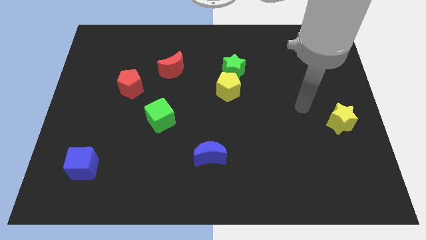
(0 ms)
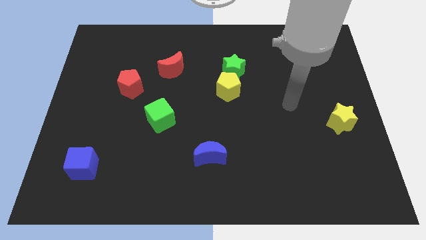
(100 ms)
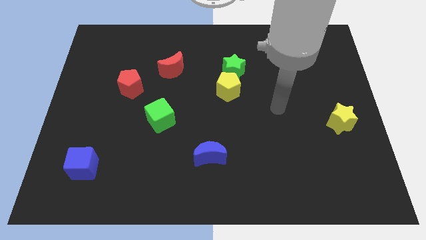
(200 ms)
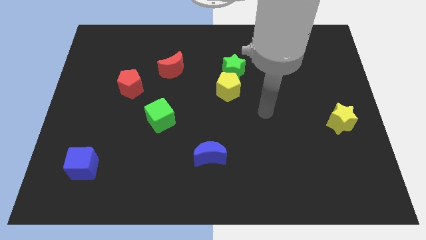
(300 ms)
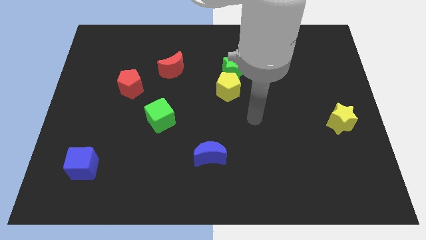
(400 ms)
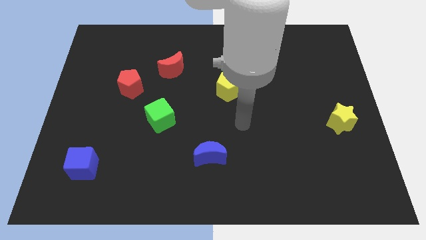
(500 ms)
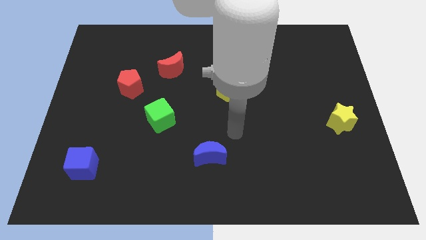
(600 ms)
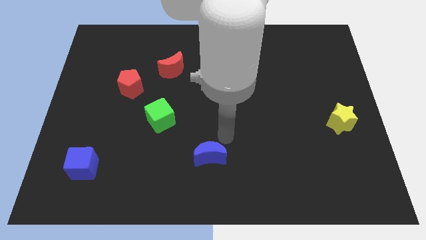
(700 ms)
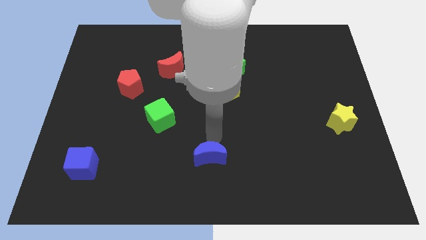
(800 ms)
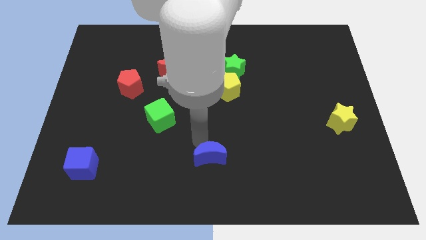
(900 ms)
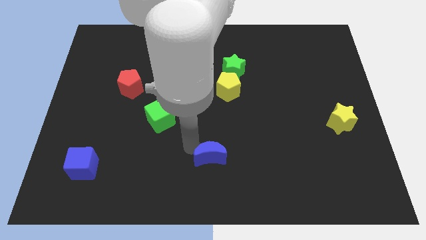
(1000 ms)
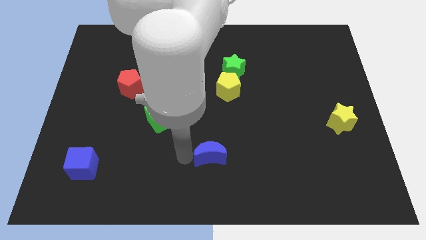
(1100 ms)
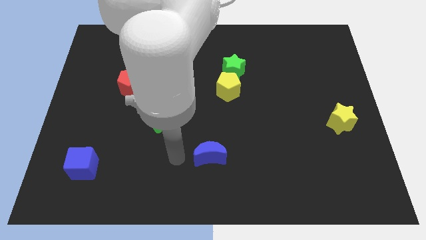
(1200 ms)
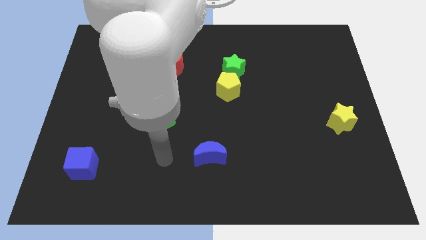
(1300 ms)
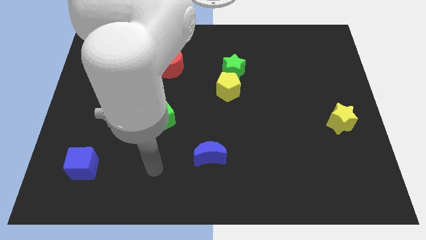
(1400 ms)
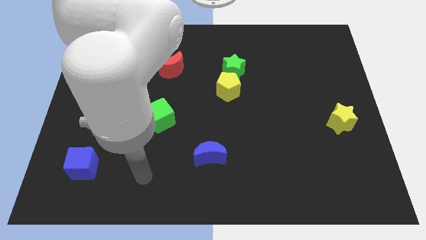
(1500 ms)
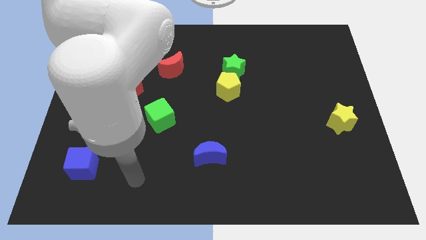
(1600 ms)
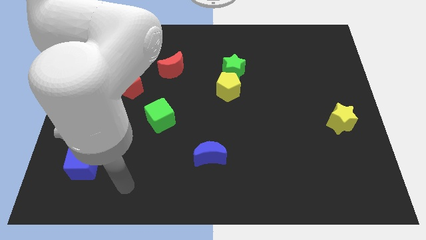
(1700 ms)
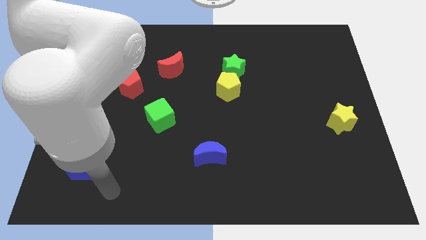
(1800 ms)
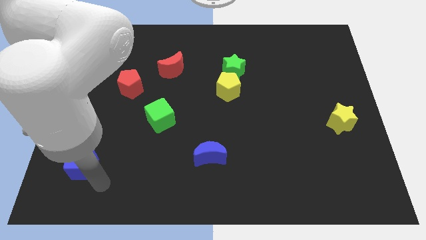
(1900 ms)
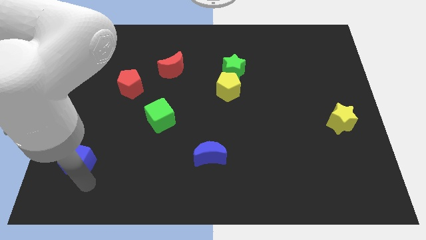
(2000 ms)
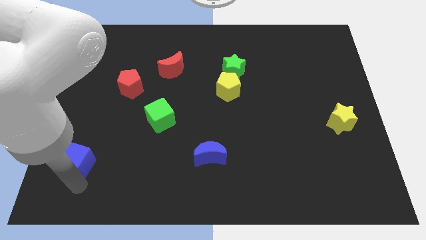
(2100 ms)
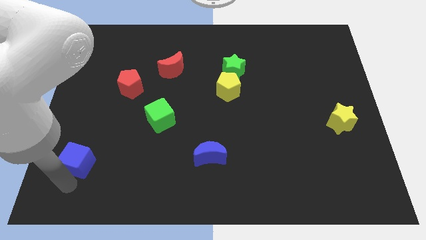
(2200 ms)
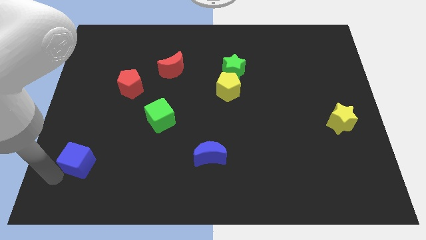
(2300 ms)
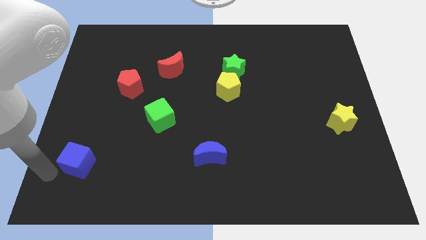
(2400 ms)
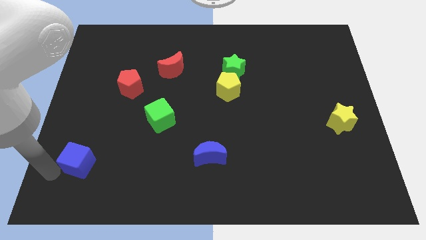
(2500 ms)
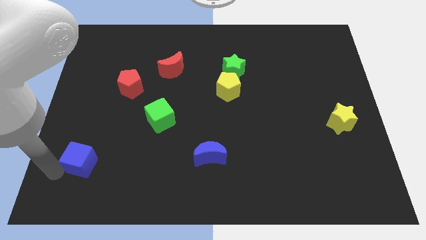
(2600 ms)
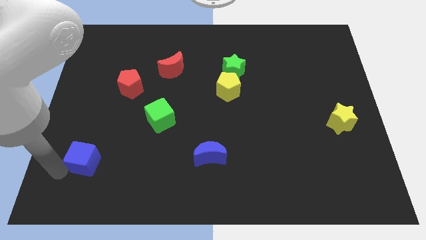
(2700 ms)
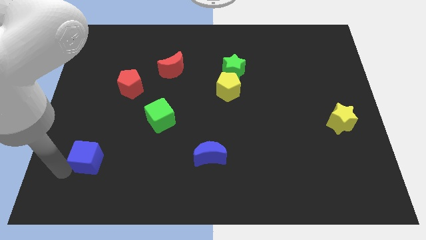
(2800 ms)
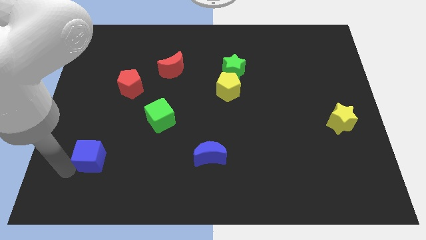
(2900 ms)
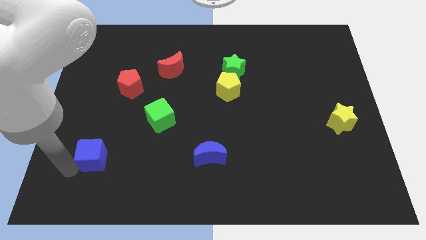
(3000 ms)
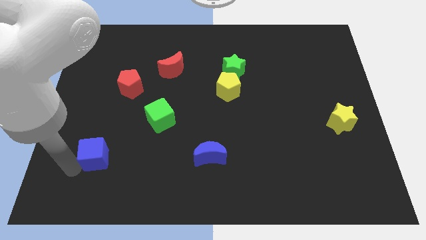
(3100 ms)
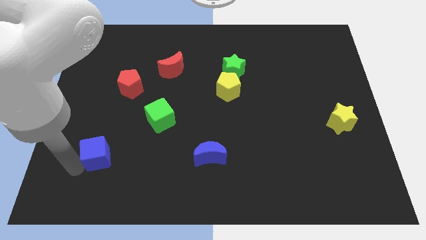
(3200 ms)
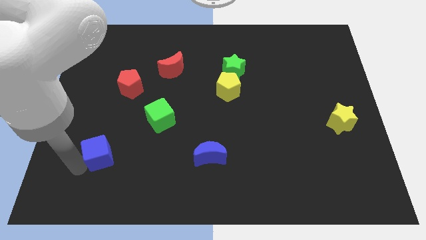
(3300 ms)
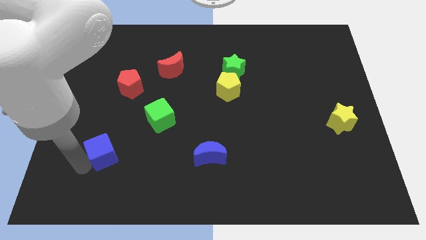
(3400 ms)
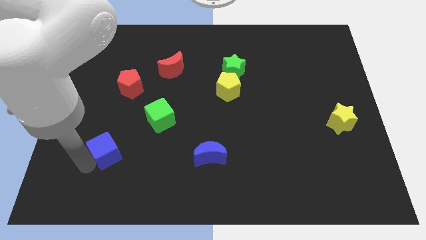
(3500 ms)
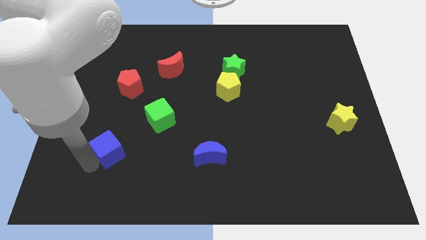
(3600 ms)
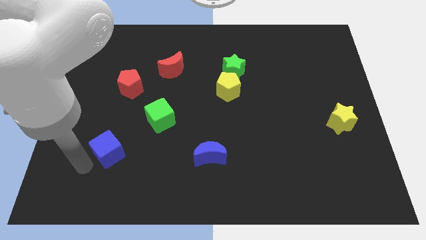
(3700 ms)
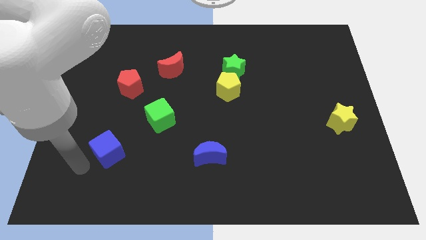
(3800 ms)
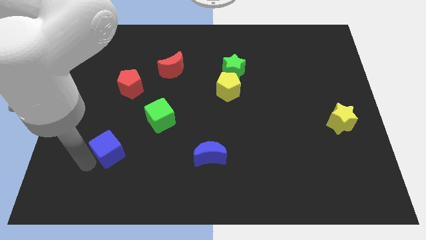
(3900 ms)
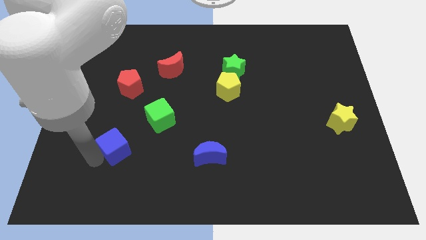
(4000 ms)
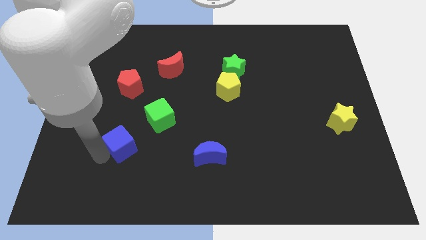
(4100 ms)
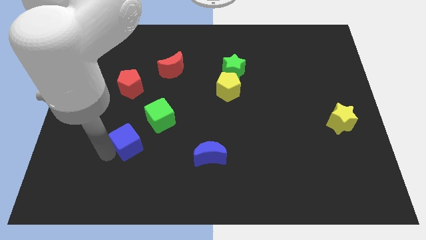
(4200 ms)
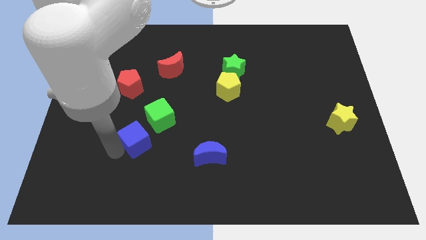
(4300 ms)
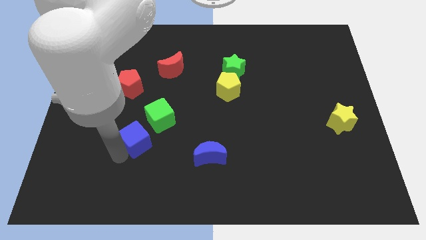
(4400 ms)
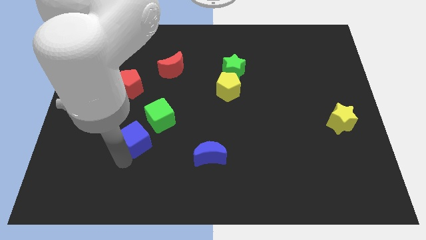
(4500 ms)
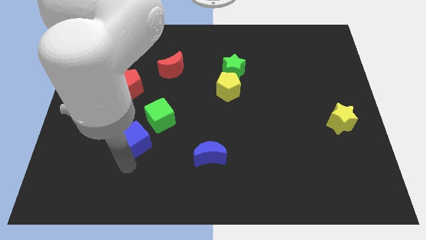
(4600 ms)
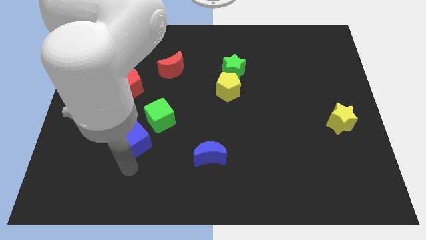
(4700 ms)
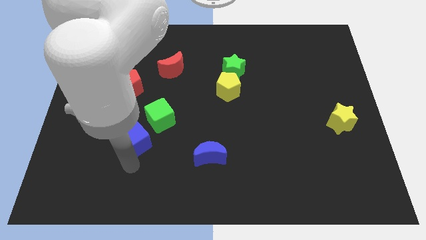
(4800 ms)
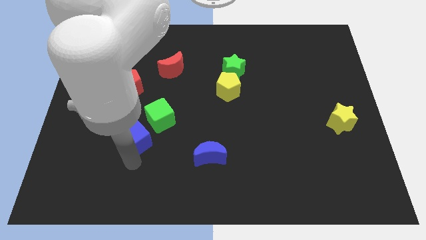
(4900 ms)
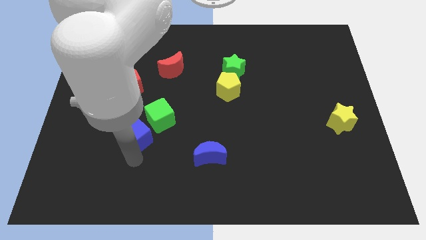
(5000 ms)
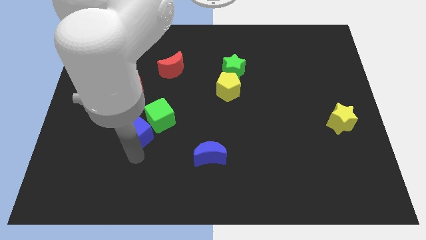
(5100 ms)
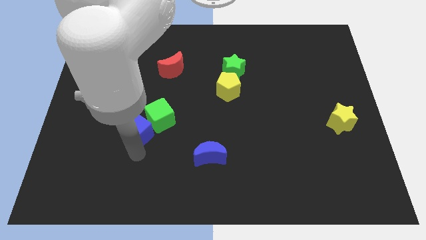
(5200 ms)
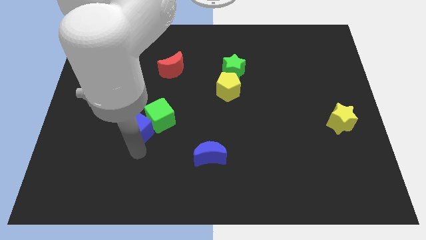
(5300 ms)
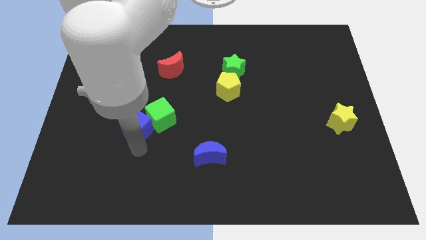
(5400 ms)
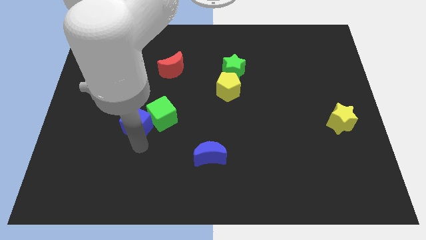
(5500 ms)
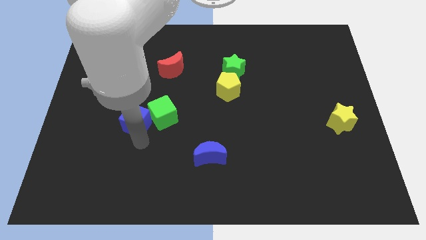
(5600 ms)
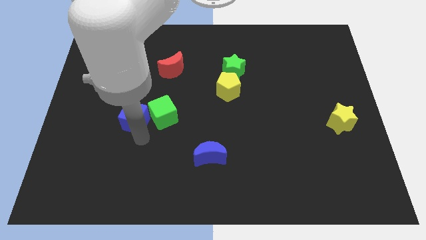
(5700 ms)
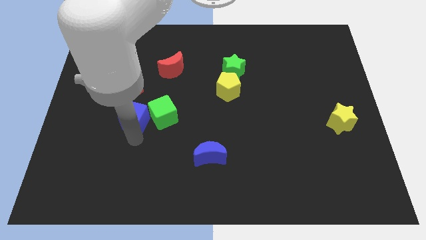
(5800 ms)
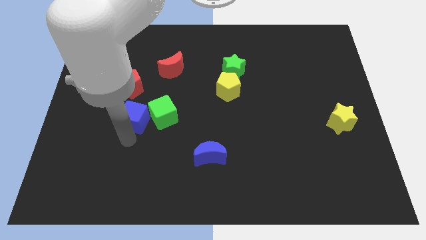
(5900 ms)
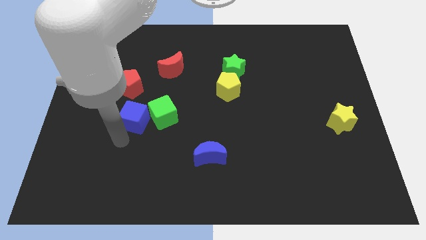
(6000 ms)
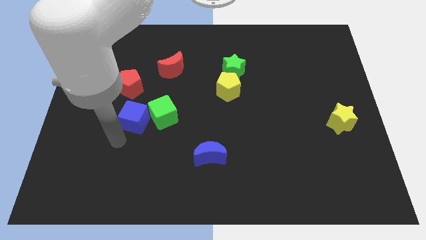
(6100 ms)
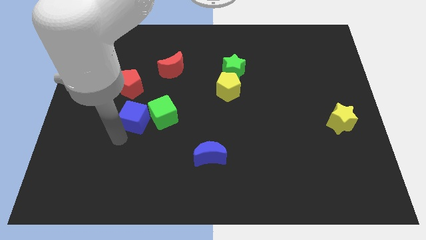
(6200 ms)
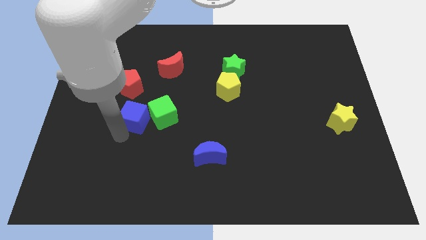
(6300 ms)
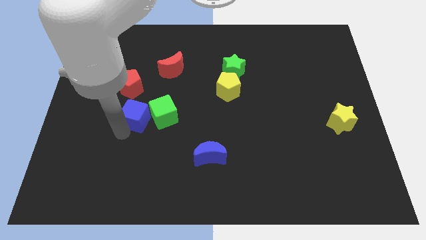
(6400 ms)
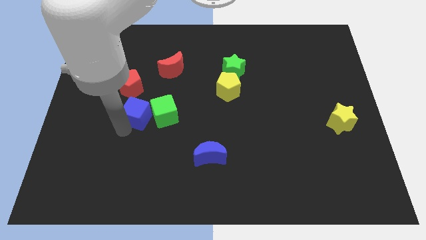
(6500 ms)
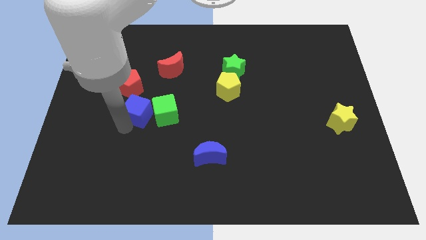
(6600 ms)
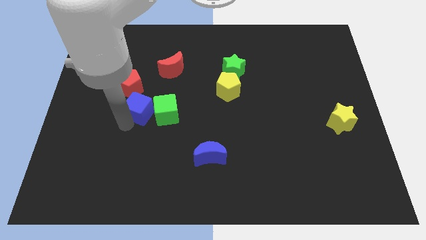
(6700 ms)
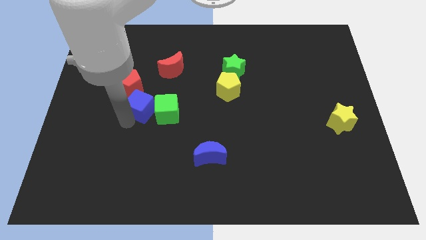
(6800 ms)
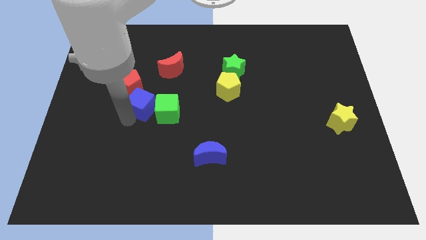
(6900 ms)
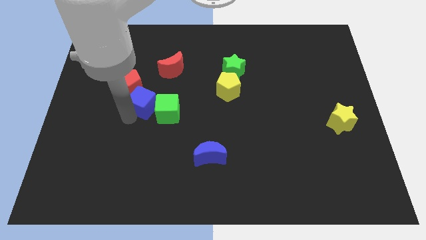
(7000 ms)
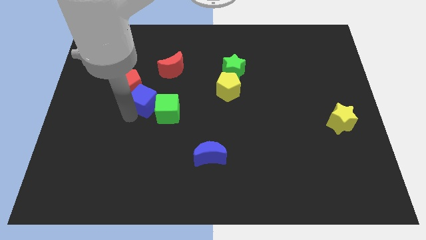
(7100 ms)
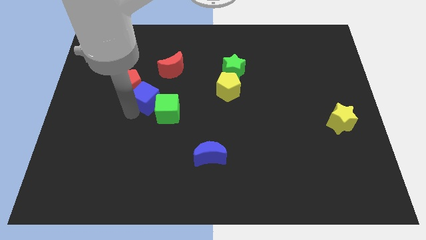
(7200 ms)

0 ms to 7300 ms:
push the blue cube just right of the red pentagon
